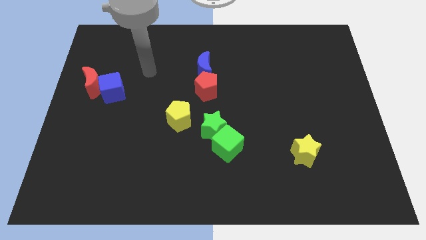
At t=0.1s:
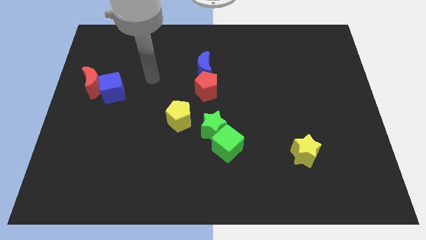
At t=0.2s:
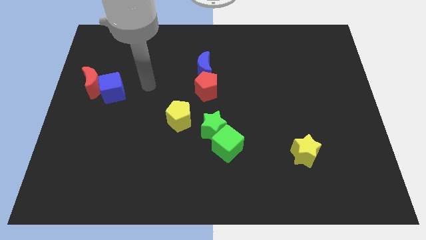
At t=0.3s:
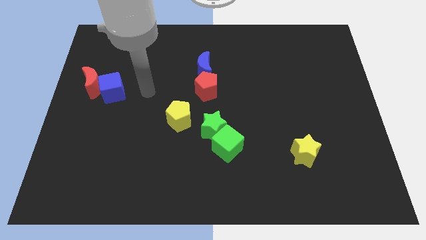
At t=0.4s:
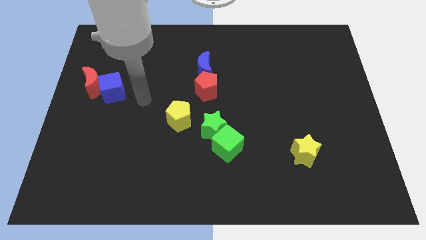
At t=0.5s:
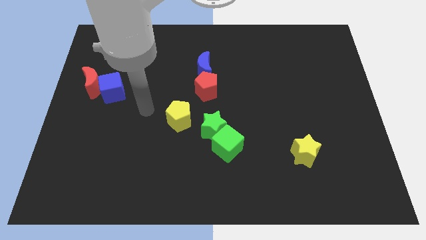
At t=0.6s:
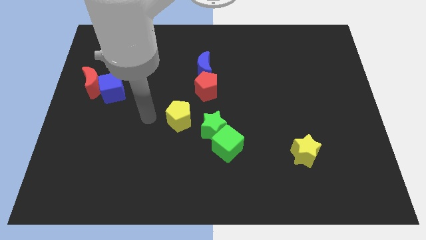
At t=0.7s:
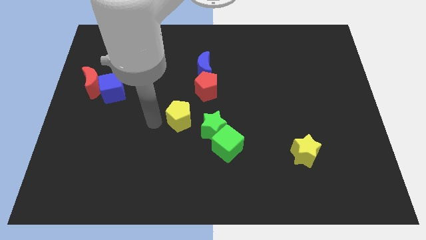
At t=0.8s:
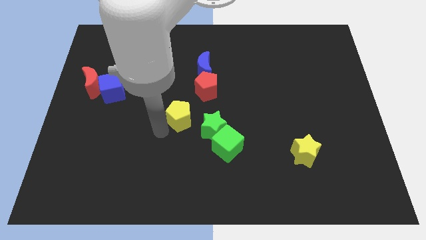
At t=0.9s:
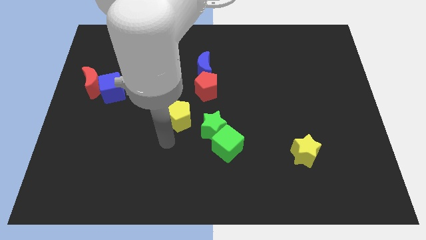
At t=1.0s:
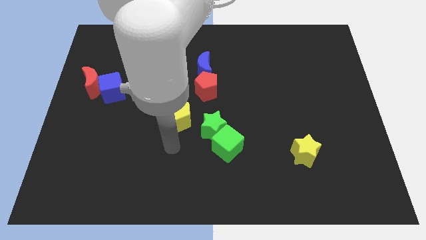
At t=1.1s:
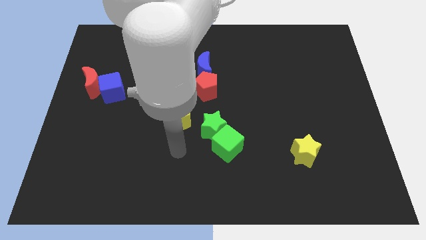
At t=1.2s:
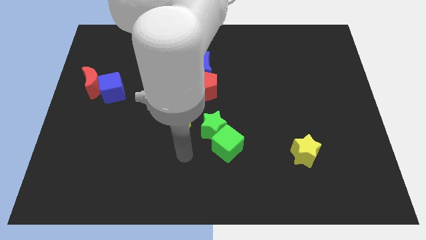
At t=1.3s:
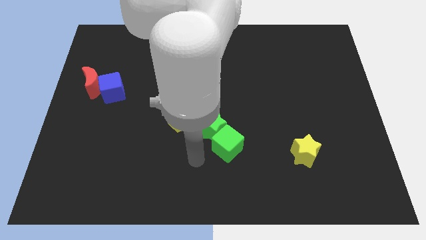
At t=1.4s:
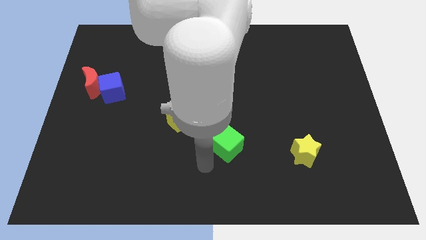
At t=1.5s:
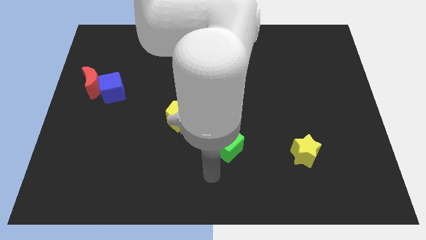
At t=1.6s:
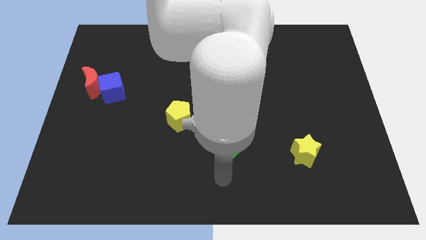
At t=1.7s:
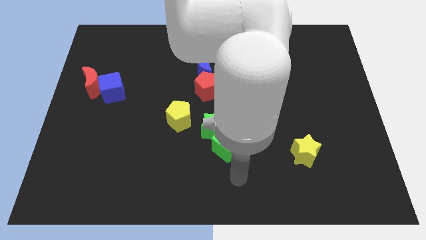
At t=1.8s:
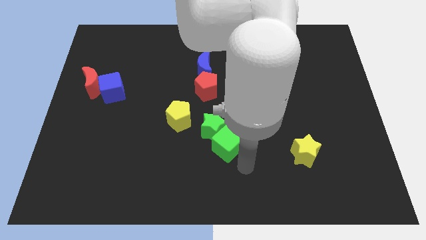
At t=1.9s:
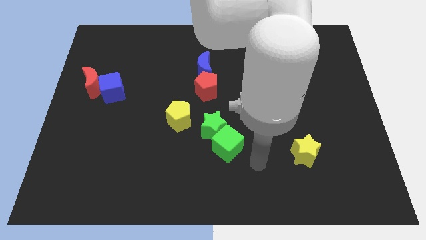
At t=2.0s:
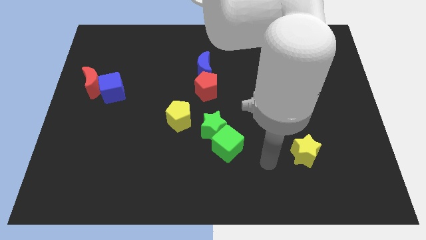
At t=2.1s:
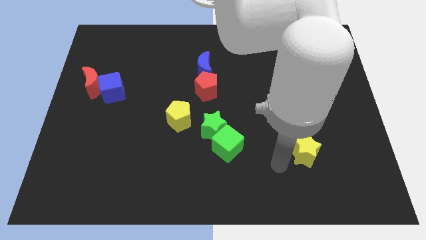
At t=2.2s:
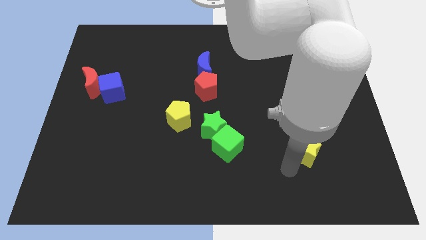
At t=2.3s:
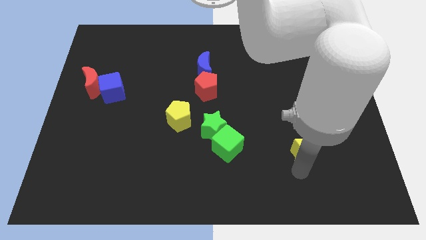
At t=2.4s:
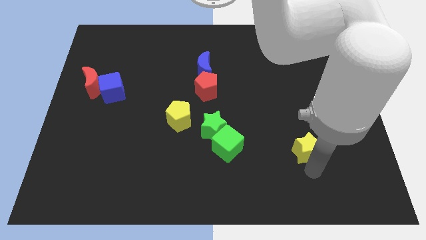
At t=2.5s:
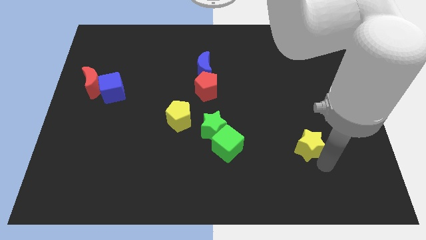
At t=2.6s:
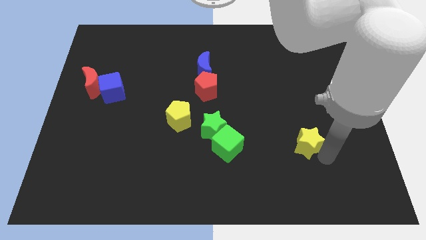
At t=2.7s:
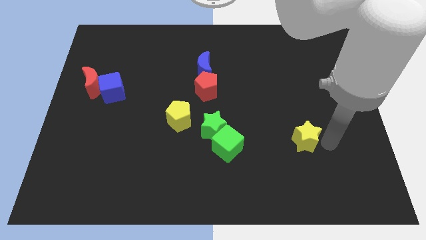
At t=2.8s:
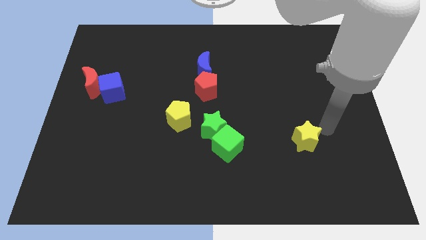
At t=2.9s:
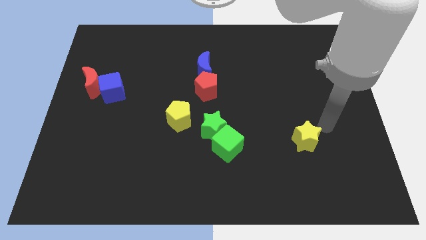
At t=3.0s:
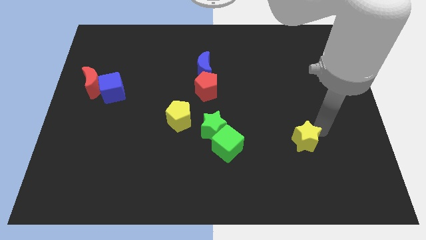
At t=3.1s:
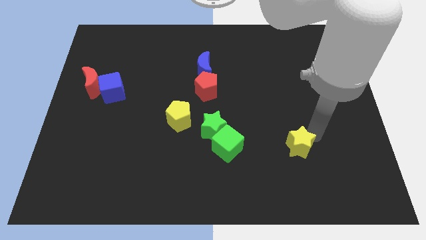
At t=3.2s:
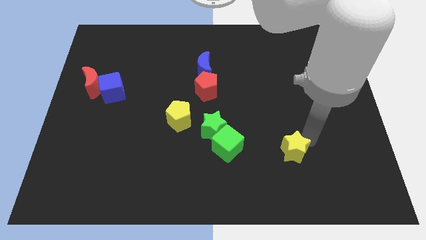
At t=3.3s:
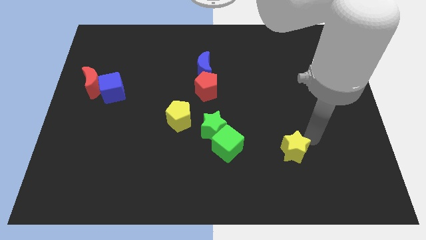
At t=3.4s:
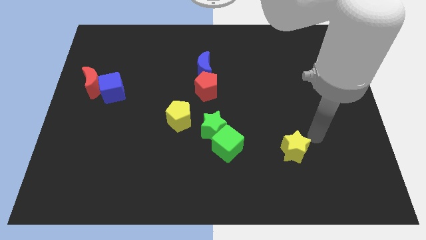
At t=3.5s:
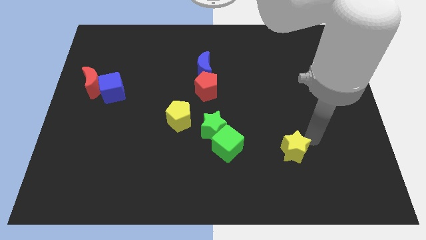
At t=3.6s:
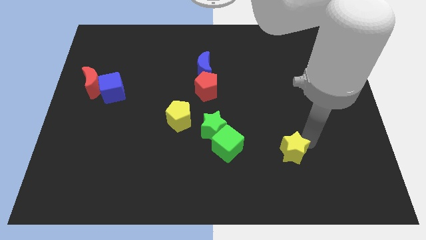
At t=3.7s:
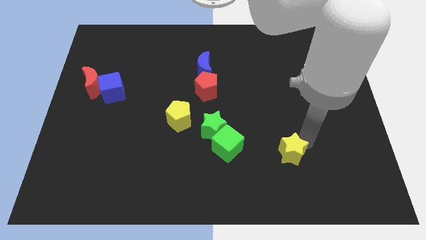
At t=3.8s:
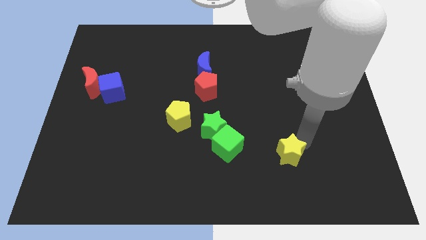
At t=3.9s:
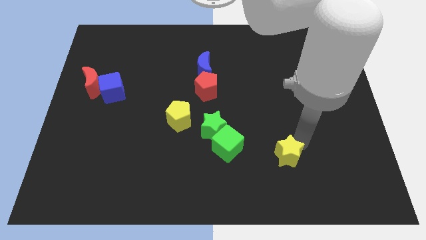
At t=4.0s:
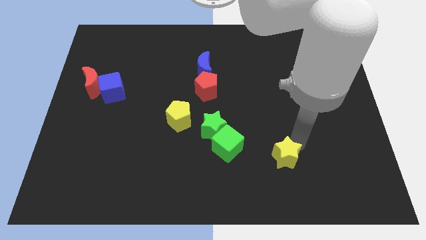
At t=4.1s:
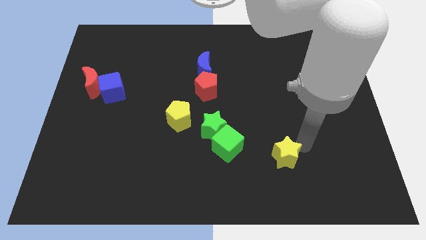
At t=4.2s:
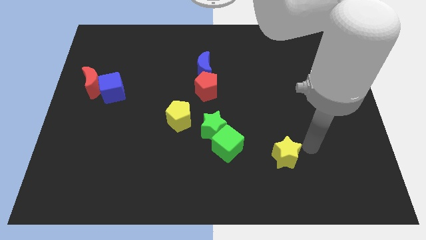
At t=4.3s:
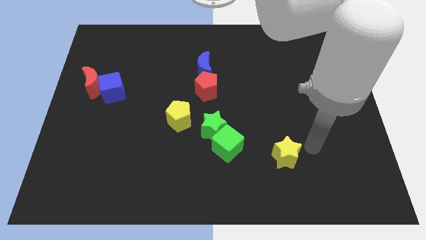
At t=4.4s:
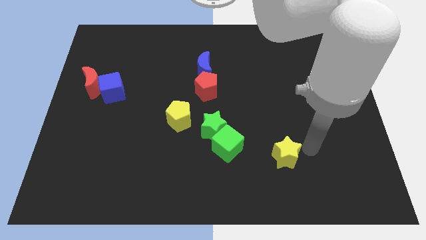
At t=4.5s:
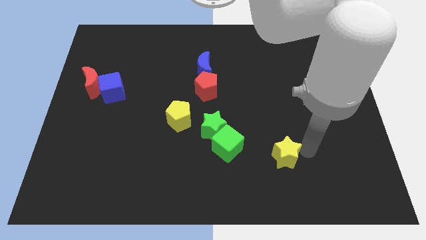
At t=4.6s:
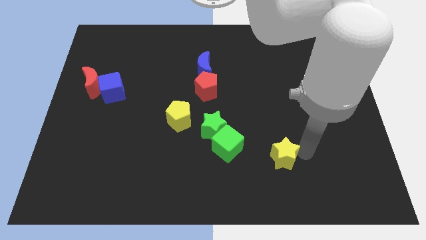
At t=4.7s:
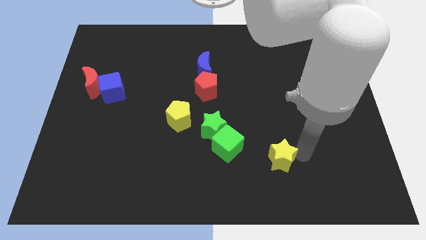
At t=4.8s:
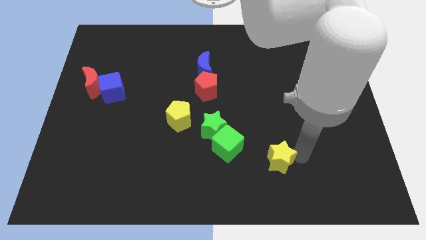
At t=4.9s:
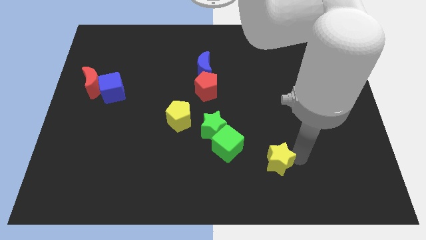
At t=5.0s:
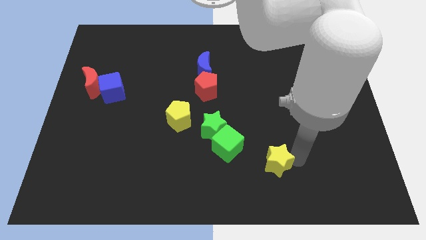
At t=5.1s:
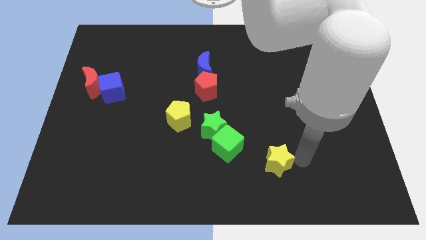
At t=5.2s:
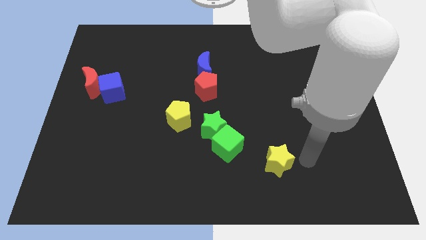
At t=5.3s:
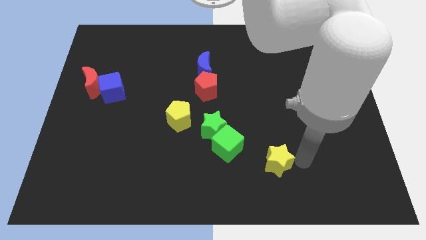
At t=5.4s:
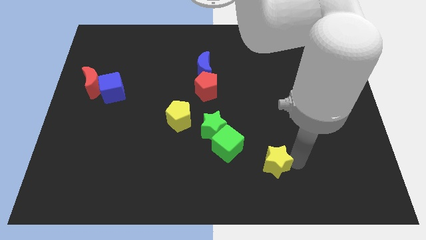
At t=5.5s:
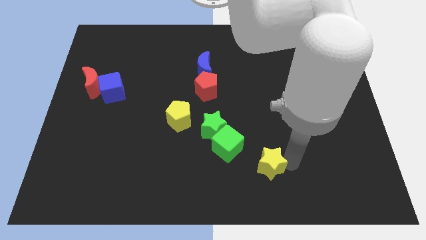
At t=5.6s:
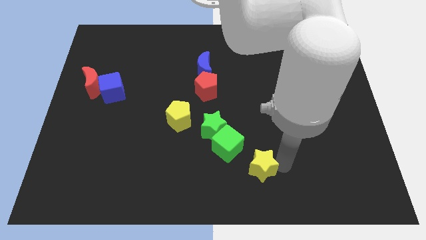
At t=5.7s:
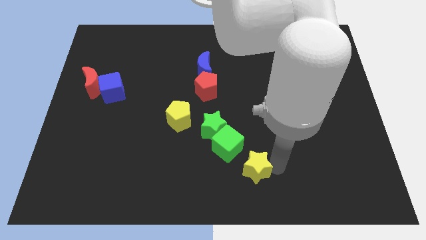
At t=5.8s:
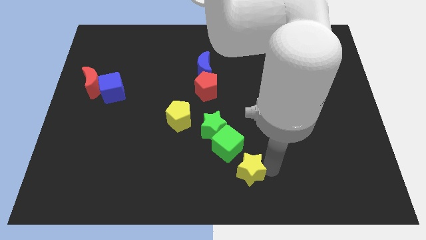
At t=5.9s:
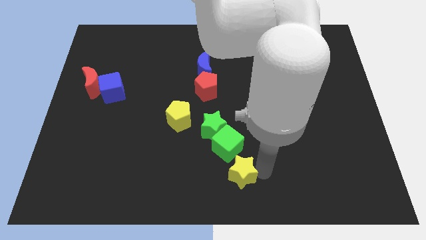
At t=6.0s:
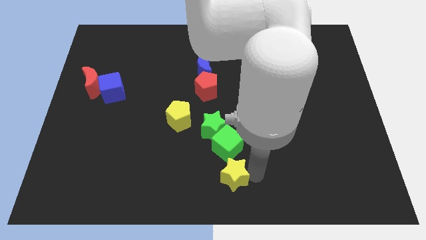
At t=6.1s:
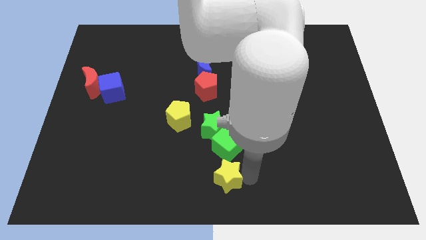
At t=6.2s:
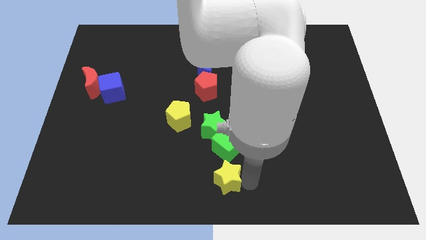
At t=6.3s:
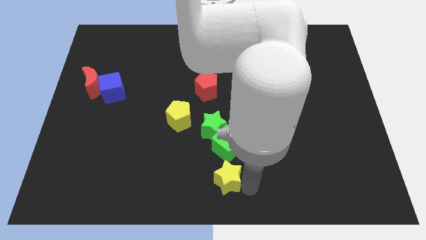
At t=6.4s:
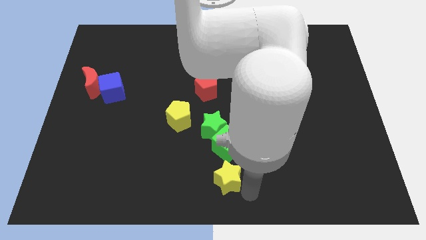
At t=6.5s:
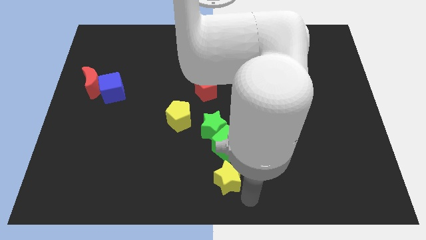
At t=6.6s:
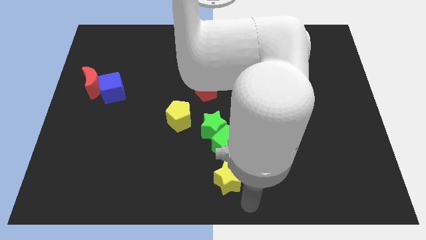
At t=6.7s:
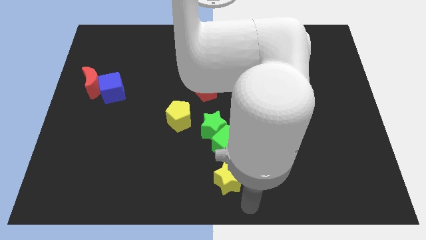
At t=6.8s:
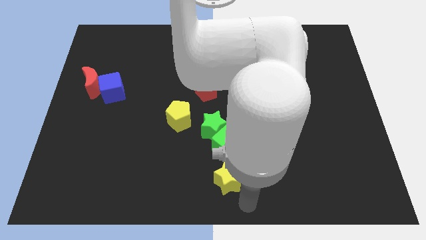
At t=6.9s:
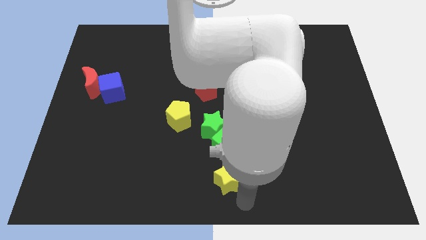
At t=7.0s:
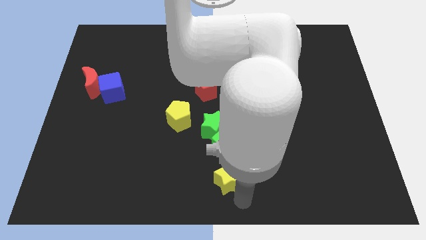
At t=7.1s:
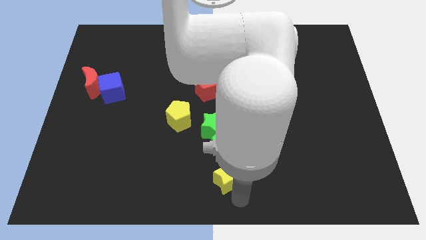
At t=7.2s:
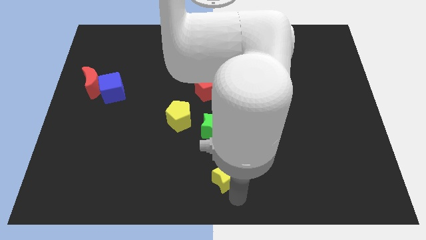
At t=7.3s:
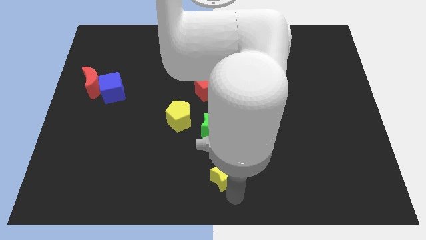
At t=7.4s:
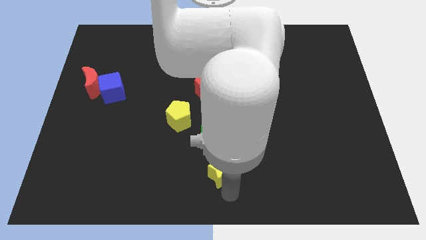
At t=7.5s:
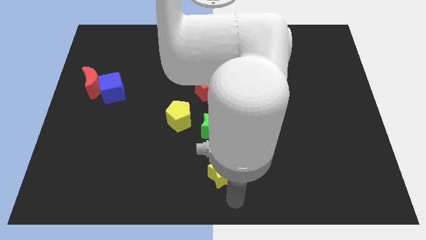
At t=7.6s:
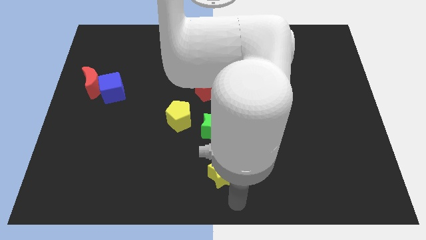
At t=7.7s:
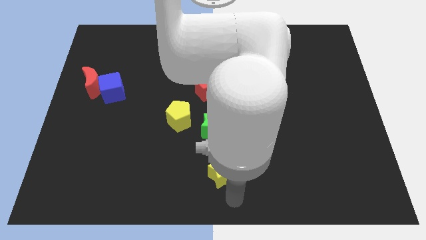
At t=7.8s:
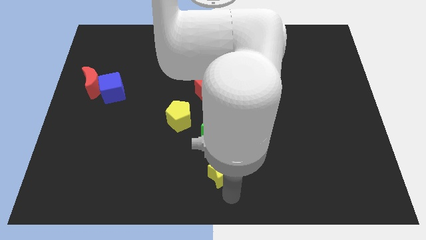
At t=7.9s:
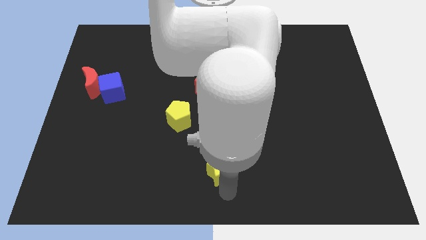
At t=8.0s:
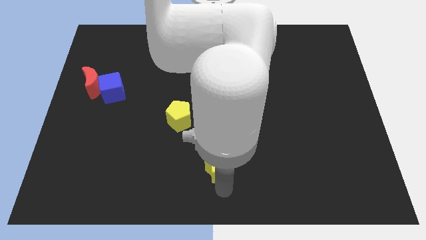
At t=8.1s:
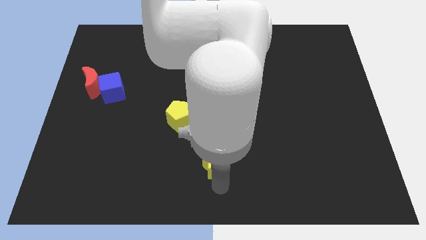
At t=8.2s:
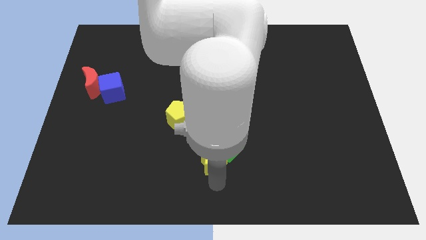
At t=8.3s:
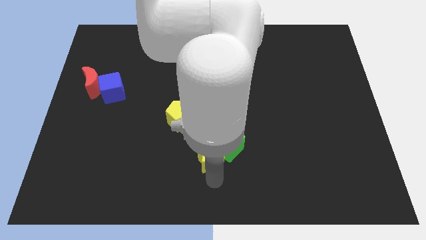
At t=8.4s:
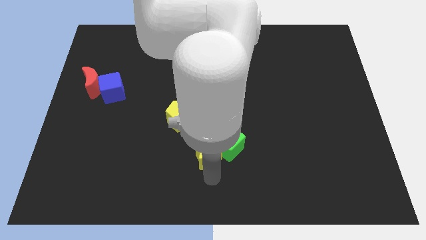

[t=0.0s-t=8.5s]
move the yellow star diagonally down and to the right of the yellow pentagon
